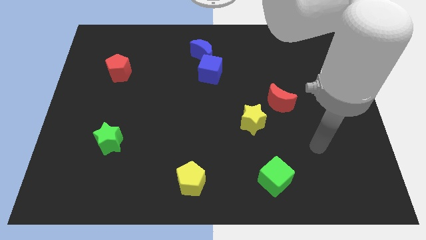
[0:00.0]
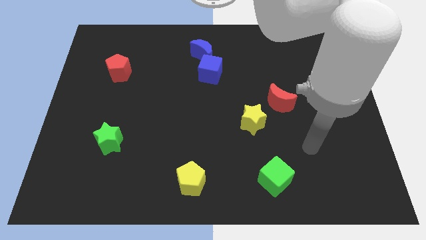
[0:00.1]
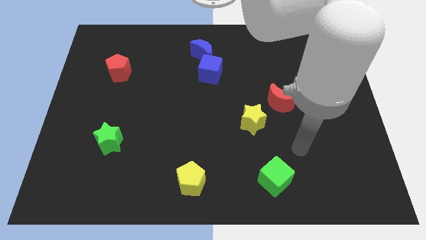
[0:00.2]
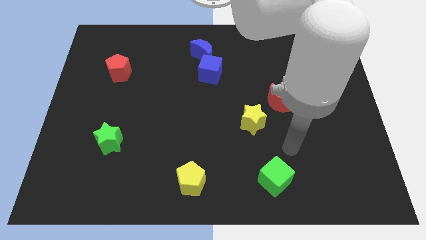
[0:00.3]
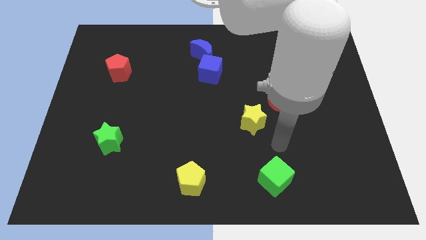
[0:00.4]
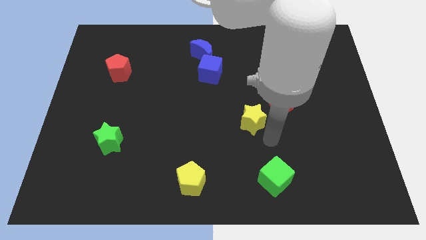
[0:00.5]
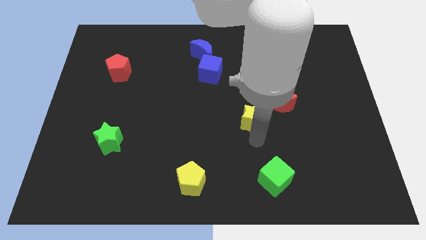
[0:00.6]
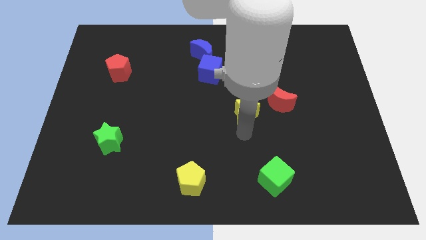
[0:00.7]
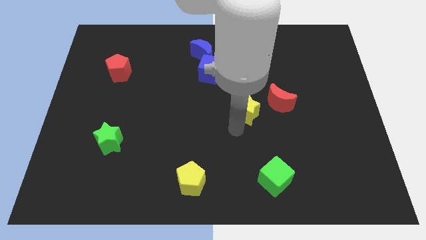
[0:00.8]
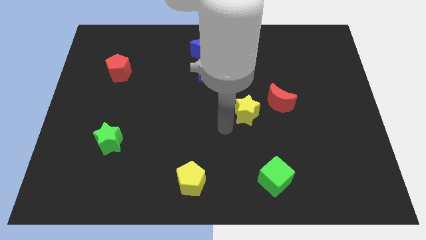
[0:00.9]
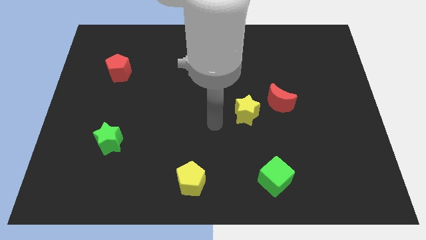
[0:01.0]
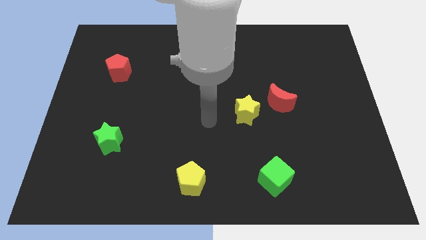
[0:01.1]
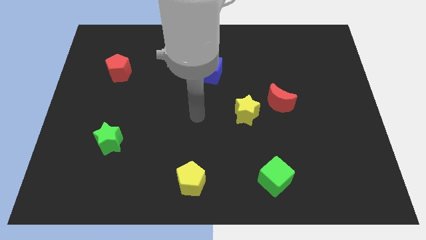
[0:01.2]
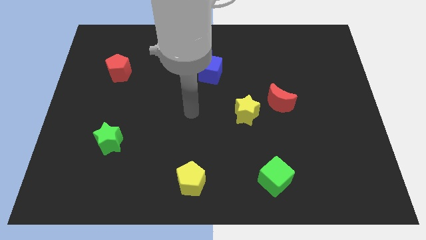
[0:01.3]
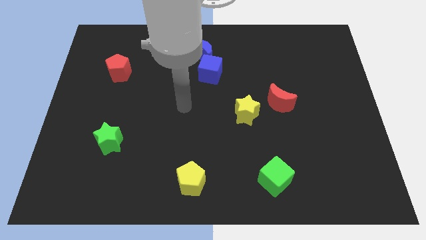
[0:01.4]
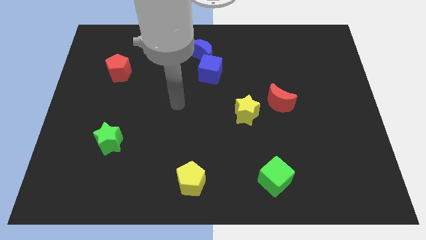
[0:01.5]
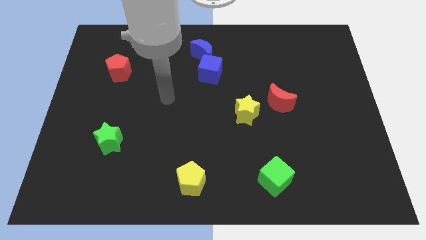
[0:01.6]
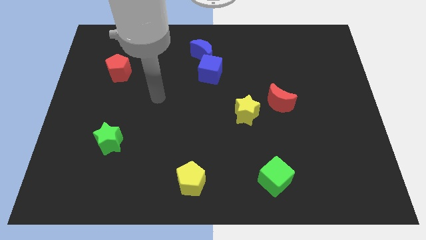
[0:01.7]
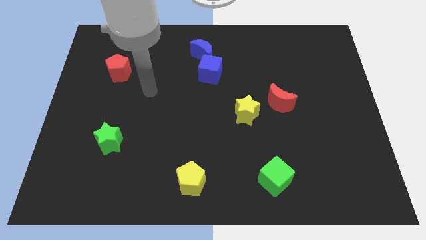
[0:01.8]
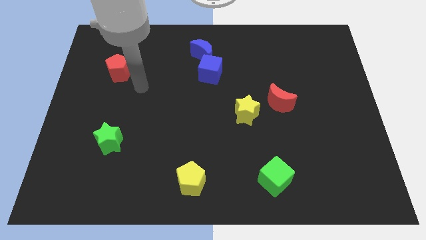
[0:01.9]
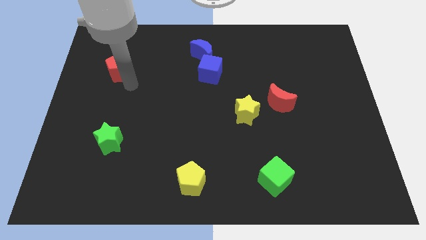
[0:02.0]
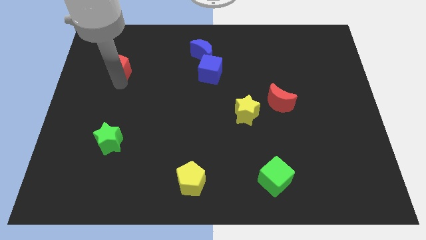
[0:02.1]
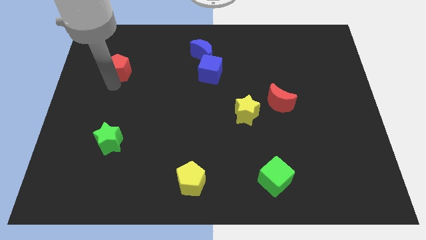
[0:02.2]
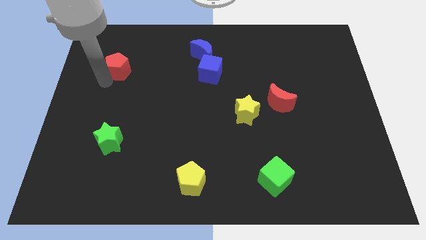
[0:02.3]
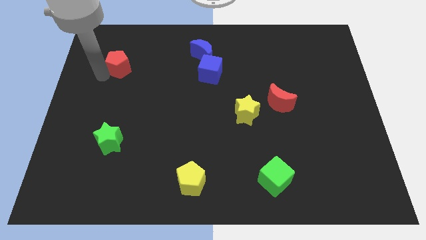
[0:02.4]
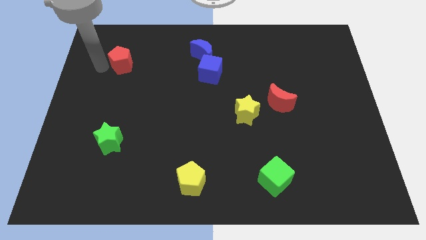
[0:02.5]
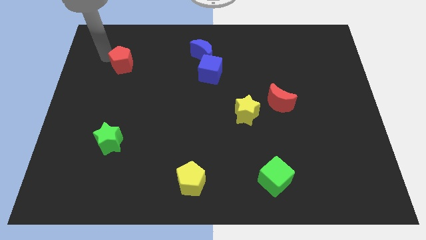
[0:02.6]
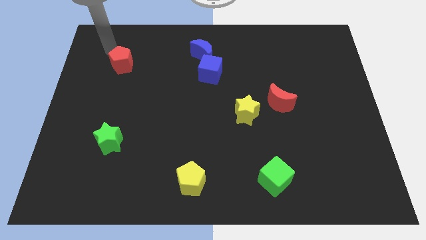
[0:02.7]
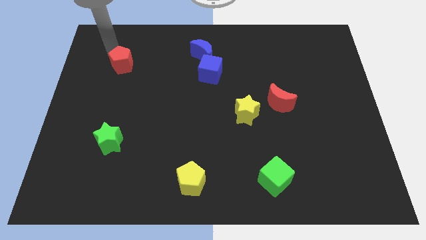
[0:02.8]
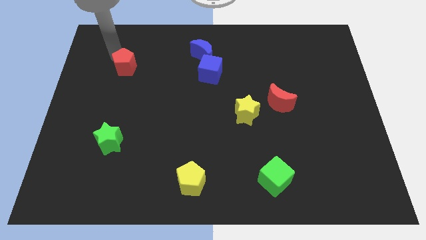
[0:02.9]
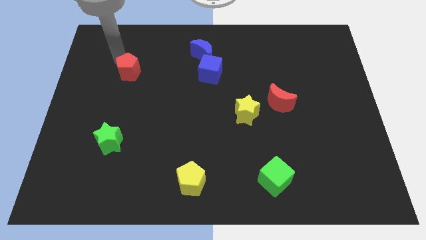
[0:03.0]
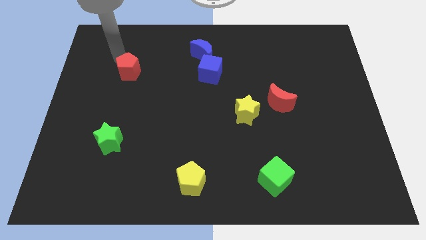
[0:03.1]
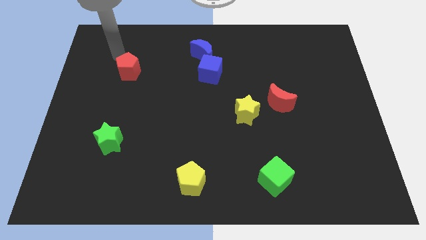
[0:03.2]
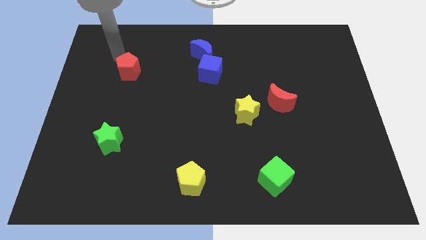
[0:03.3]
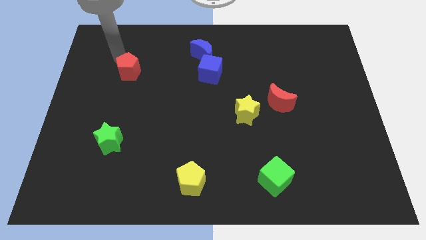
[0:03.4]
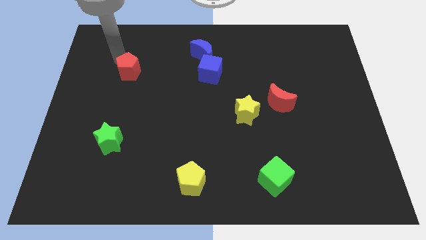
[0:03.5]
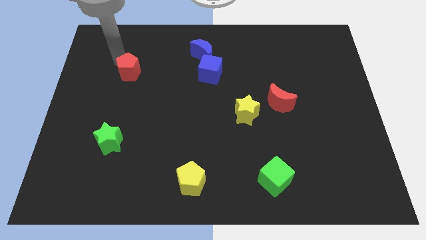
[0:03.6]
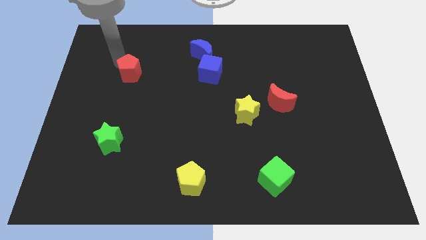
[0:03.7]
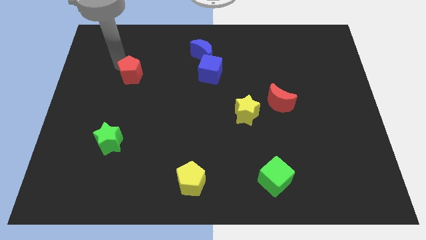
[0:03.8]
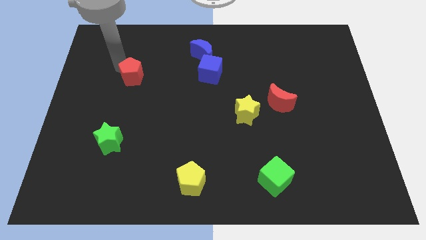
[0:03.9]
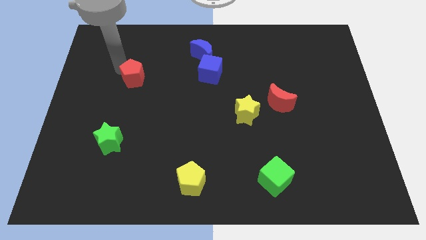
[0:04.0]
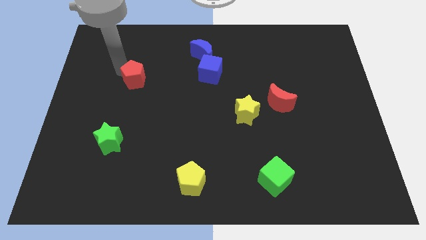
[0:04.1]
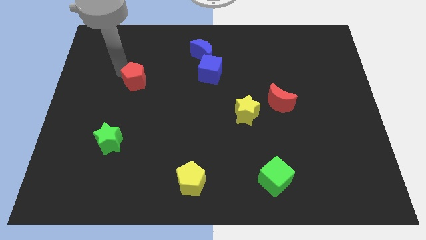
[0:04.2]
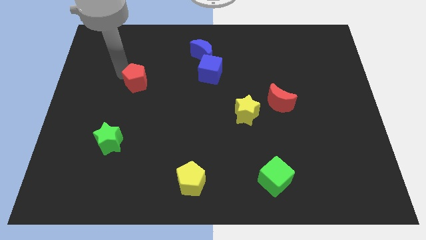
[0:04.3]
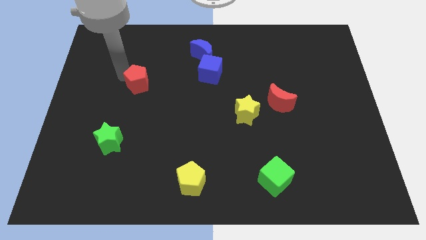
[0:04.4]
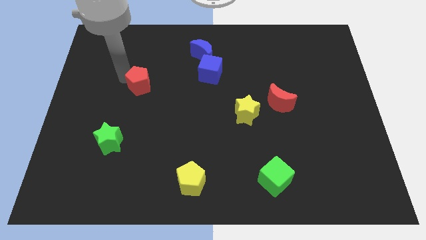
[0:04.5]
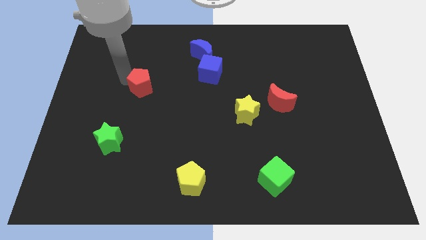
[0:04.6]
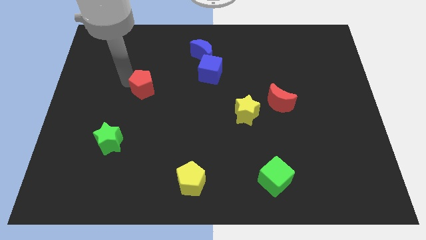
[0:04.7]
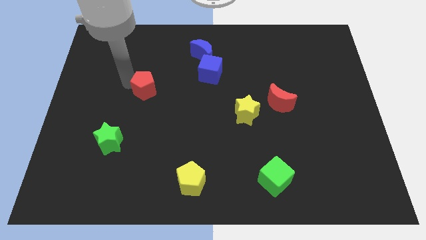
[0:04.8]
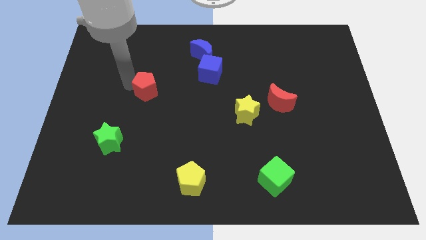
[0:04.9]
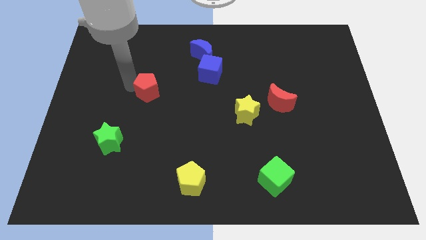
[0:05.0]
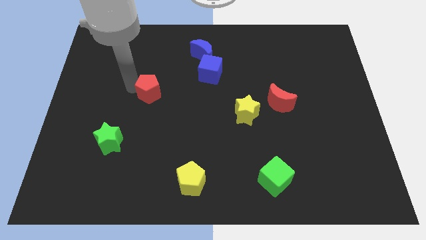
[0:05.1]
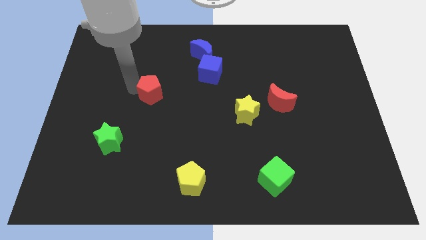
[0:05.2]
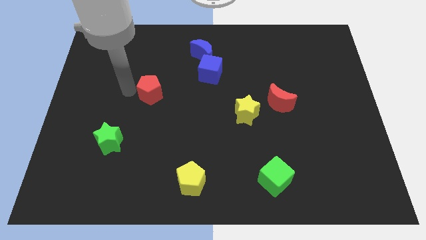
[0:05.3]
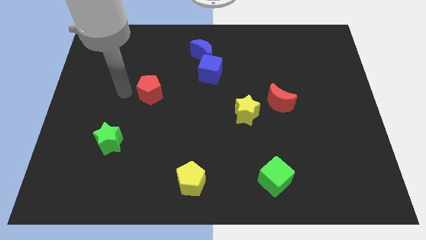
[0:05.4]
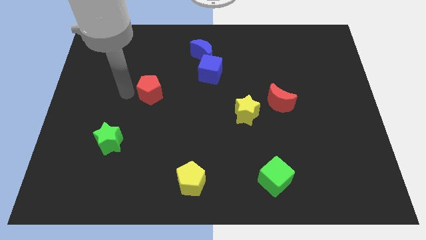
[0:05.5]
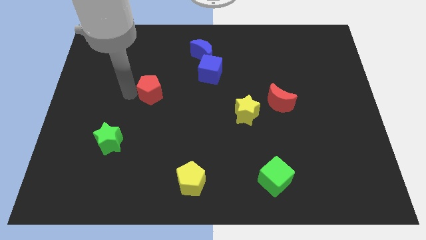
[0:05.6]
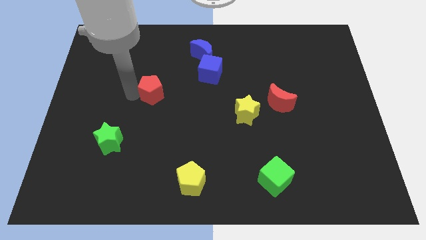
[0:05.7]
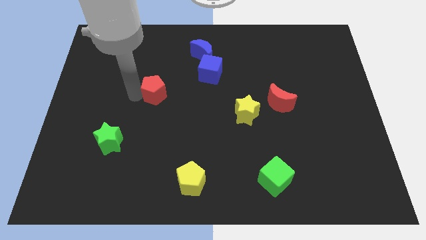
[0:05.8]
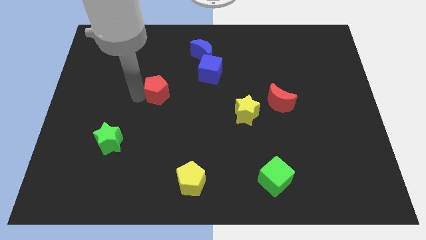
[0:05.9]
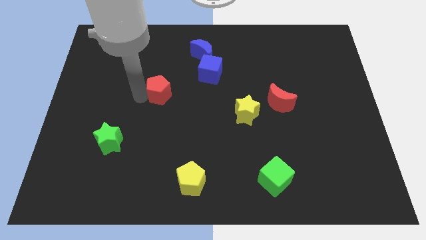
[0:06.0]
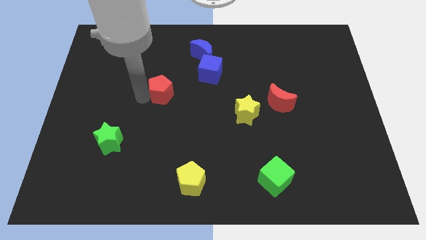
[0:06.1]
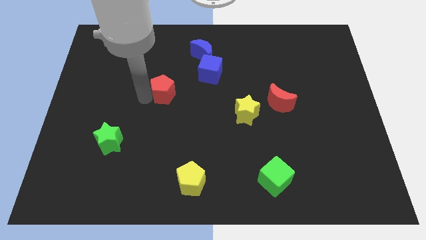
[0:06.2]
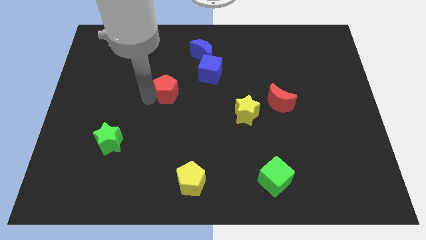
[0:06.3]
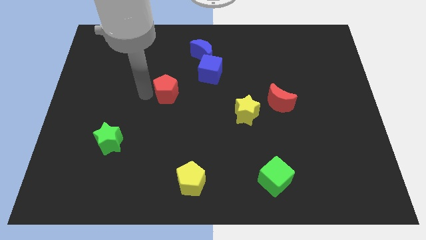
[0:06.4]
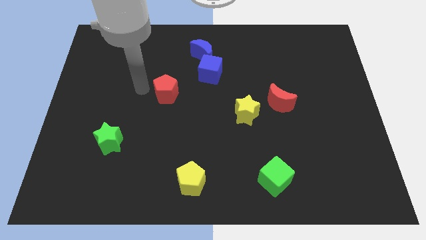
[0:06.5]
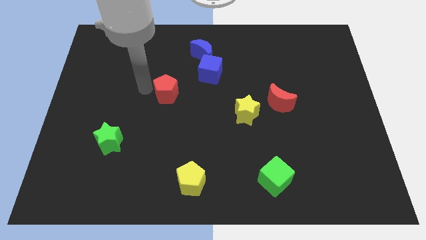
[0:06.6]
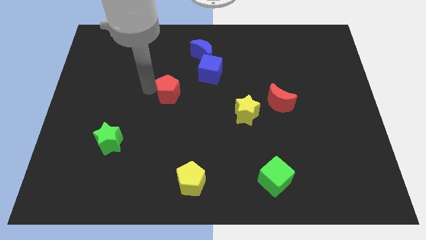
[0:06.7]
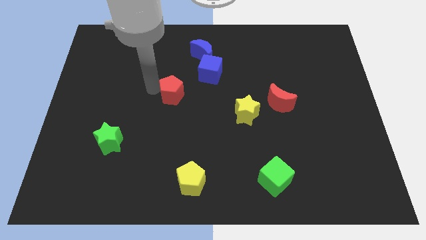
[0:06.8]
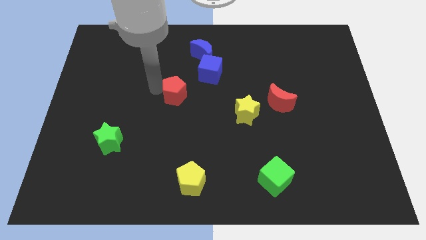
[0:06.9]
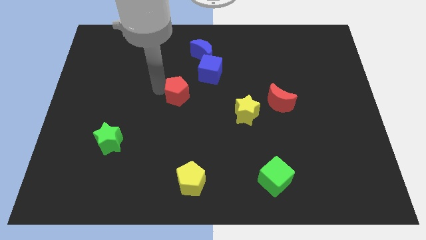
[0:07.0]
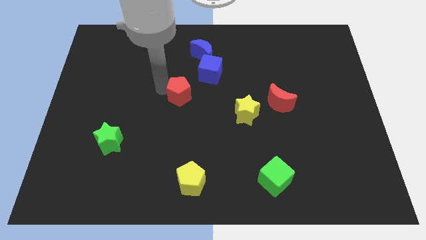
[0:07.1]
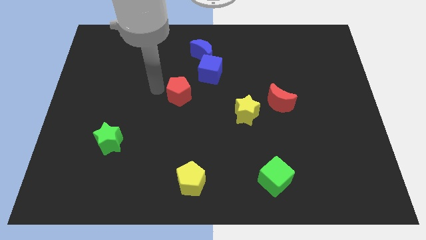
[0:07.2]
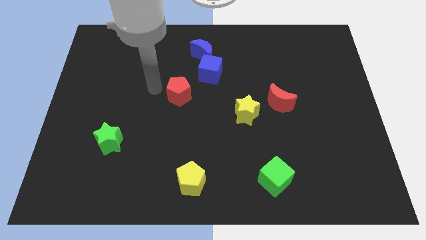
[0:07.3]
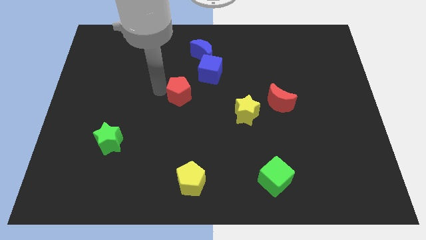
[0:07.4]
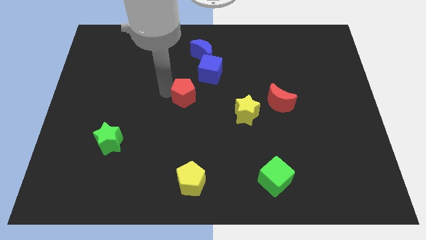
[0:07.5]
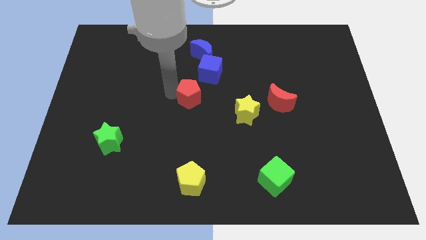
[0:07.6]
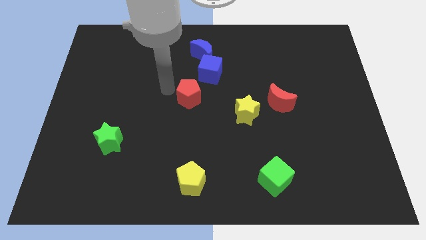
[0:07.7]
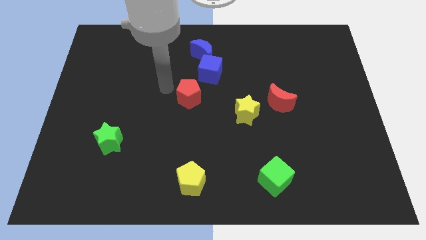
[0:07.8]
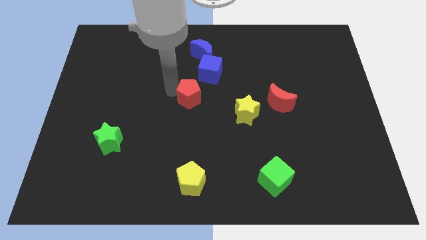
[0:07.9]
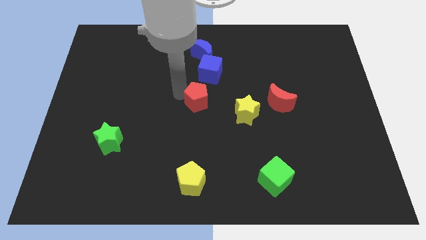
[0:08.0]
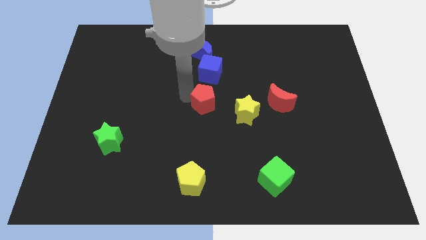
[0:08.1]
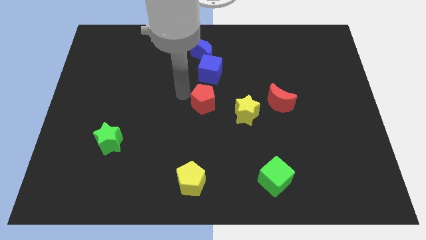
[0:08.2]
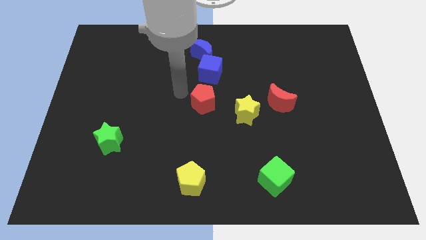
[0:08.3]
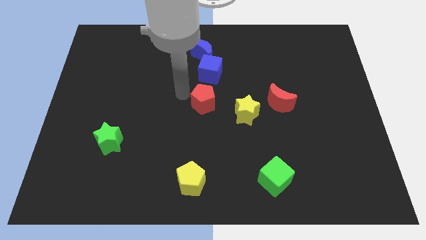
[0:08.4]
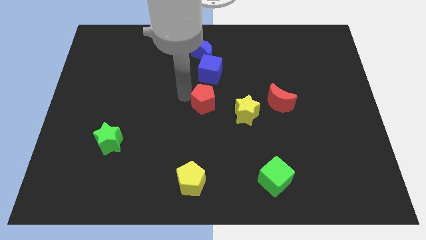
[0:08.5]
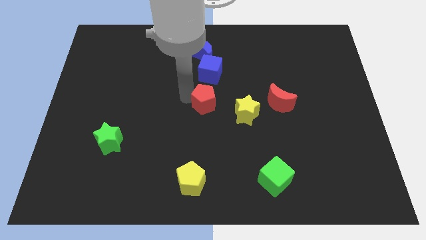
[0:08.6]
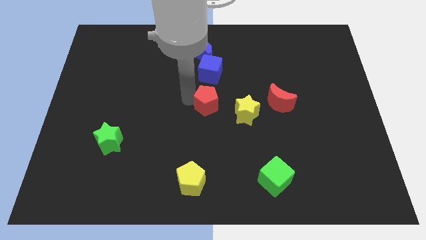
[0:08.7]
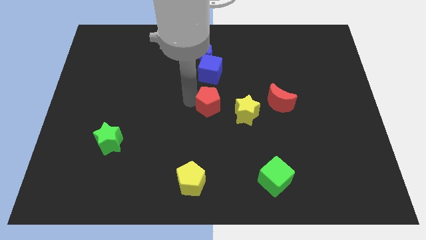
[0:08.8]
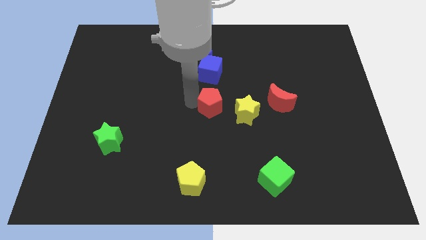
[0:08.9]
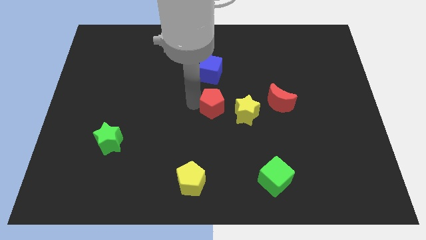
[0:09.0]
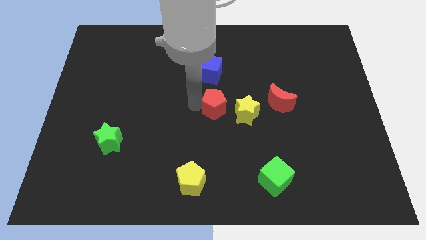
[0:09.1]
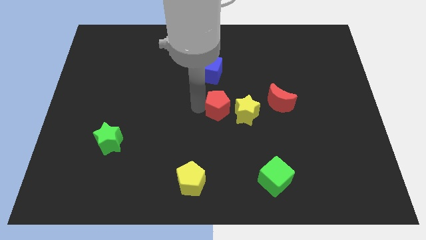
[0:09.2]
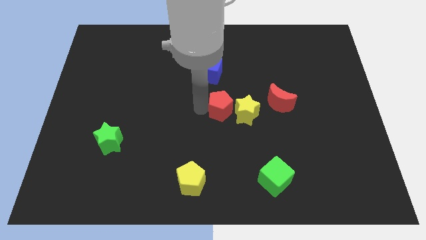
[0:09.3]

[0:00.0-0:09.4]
push the red pentagon close to the yellow star
